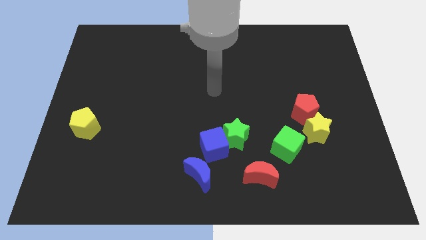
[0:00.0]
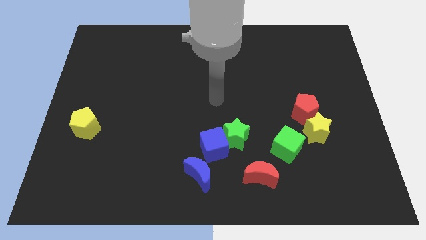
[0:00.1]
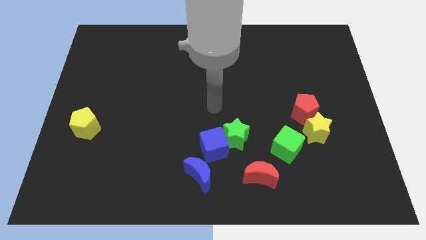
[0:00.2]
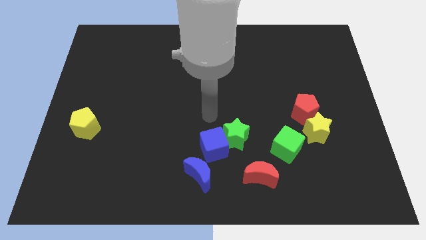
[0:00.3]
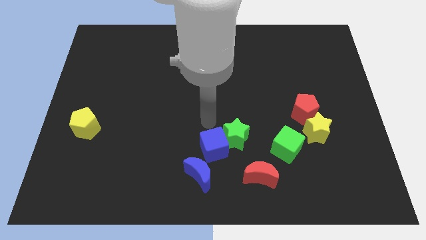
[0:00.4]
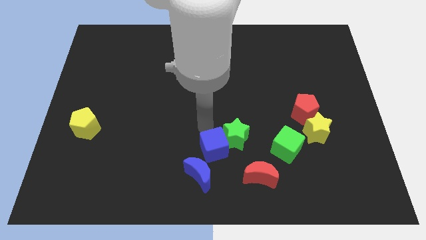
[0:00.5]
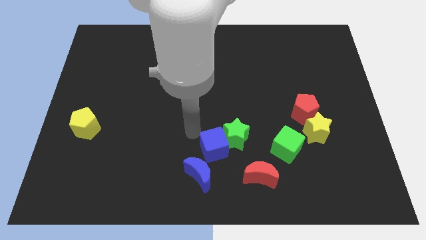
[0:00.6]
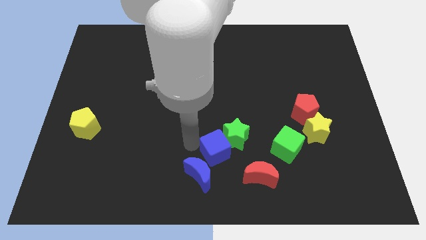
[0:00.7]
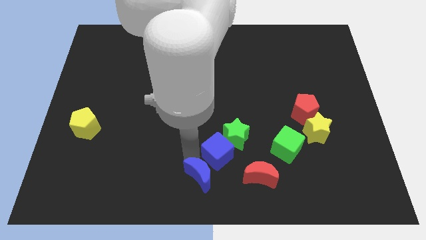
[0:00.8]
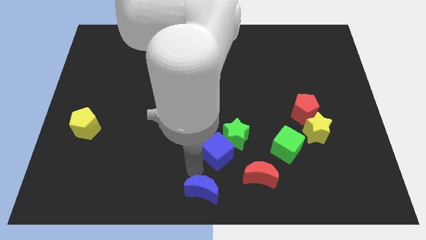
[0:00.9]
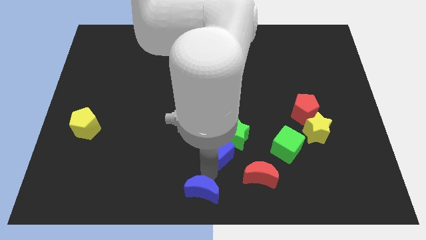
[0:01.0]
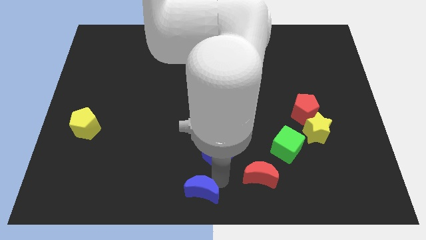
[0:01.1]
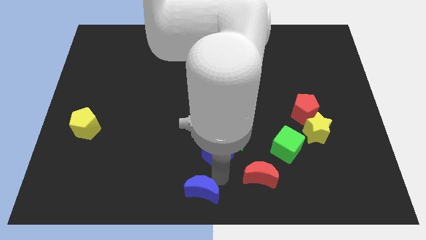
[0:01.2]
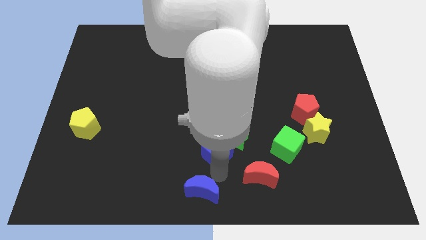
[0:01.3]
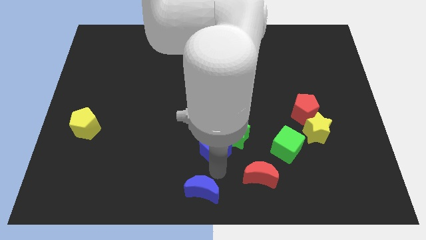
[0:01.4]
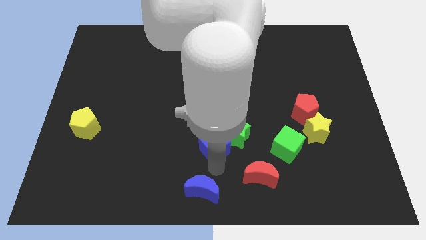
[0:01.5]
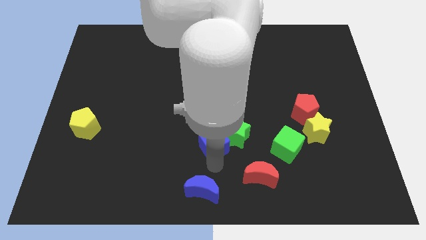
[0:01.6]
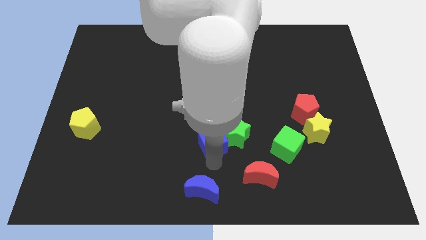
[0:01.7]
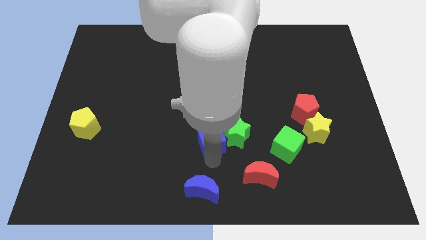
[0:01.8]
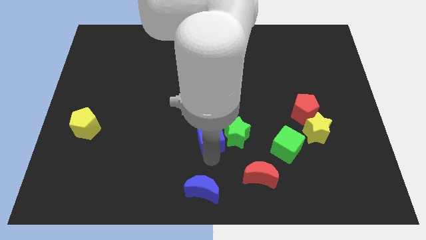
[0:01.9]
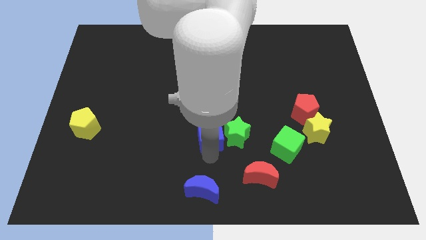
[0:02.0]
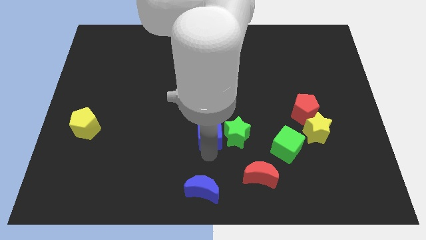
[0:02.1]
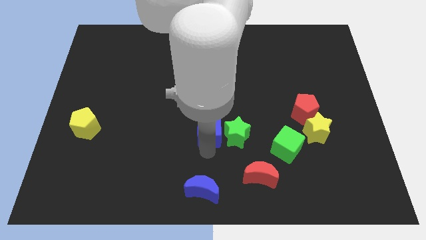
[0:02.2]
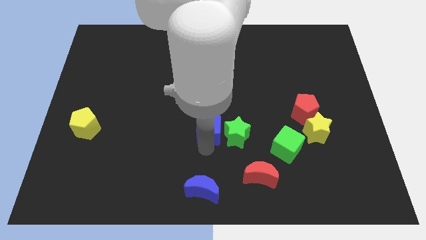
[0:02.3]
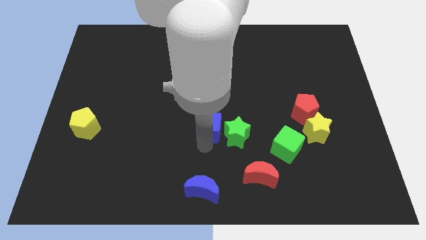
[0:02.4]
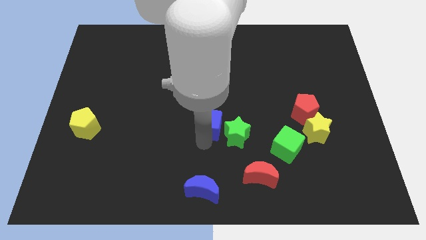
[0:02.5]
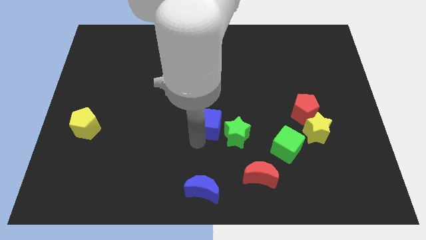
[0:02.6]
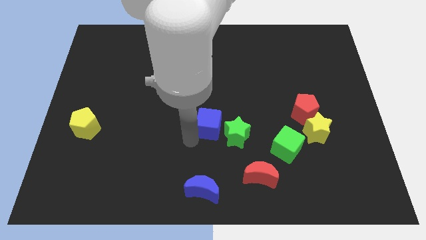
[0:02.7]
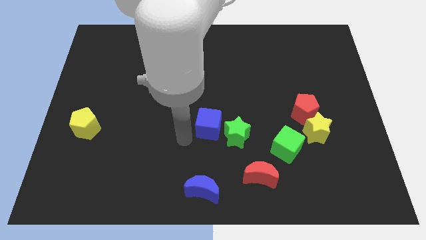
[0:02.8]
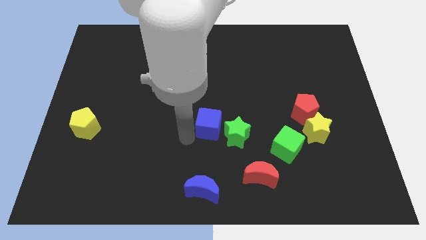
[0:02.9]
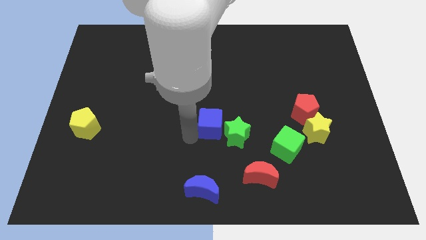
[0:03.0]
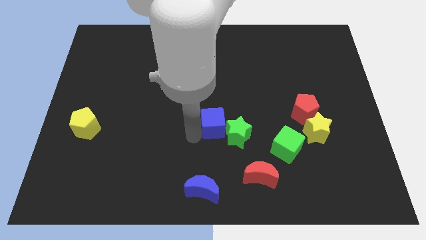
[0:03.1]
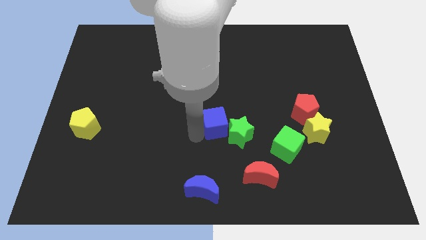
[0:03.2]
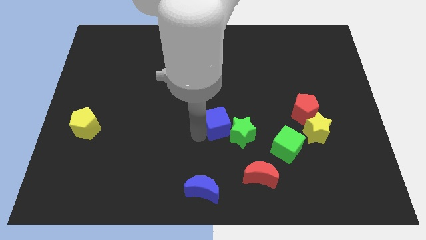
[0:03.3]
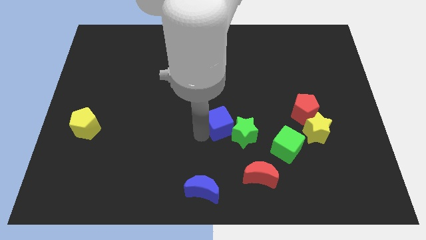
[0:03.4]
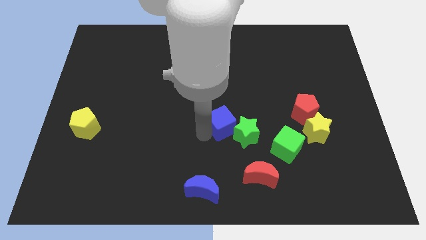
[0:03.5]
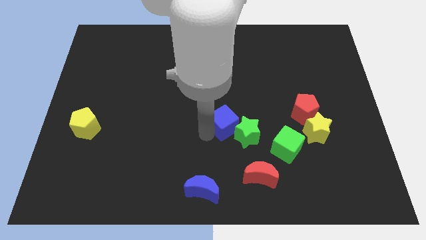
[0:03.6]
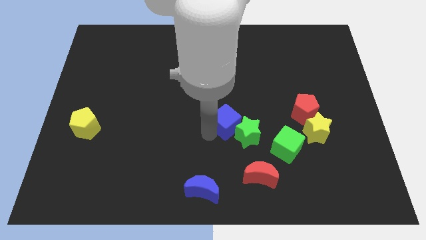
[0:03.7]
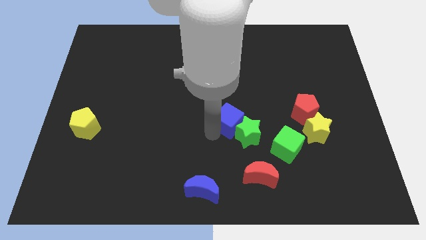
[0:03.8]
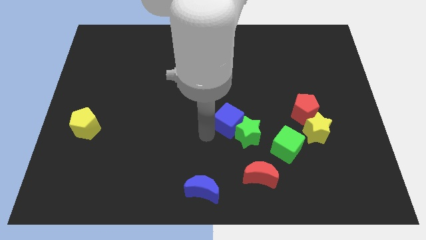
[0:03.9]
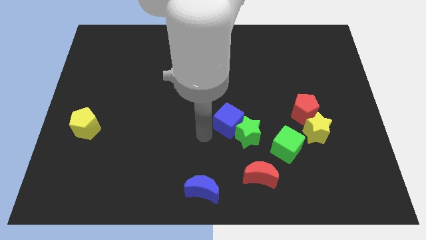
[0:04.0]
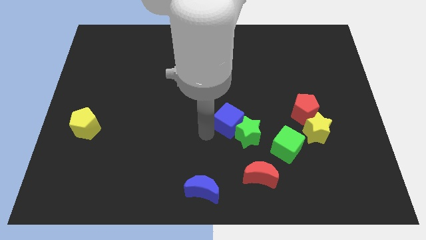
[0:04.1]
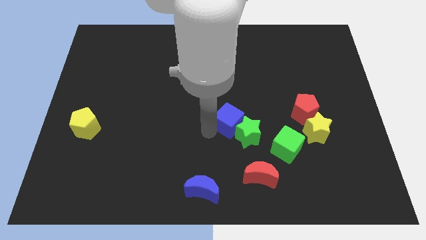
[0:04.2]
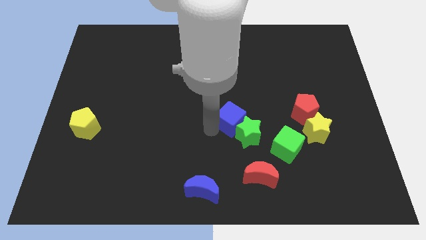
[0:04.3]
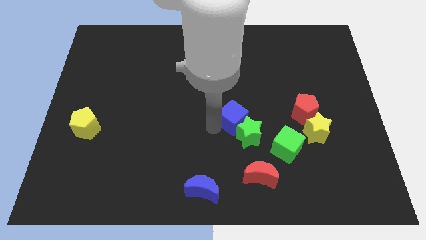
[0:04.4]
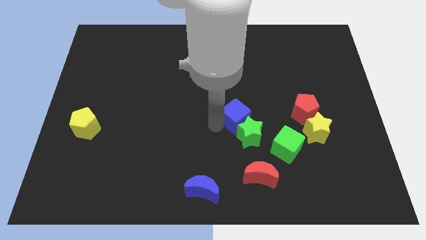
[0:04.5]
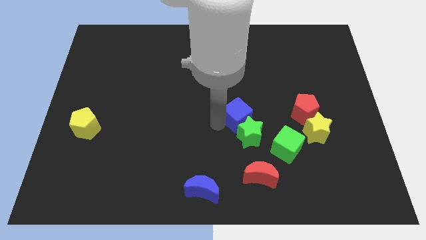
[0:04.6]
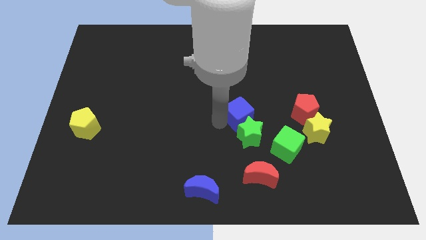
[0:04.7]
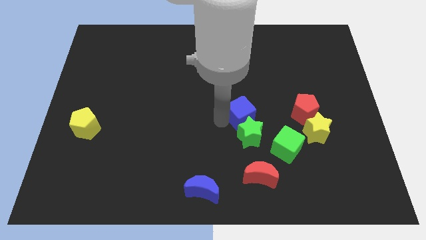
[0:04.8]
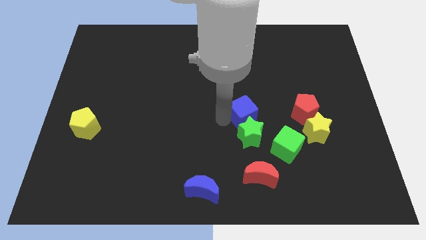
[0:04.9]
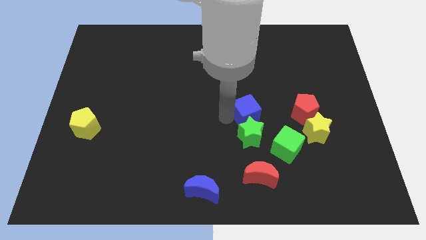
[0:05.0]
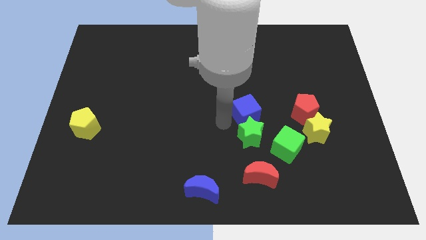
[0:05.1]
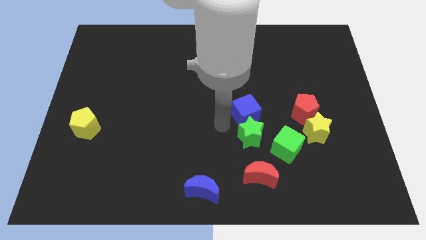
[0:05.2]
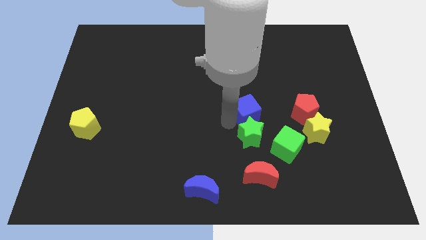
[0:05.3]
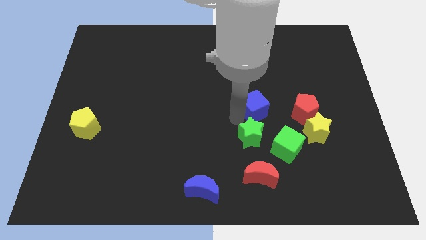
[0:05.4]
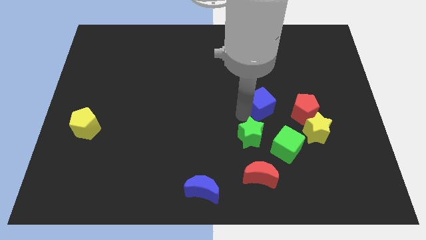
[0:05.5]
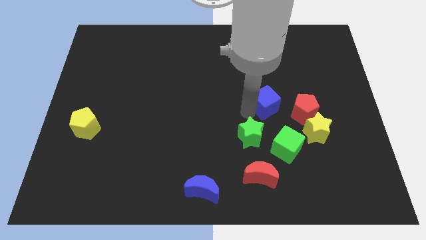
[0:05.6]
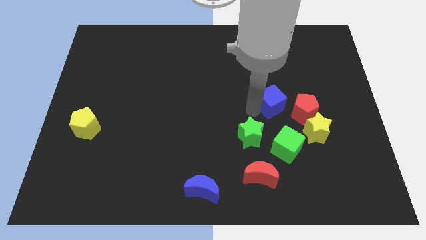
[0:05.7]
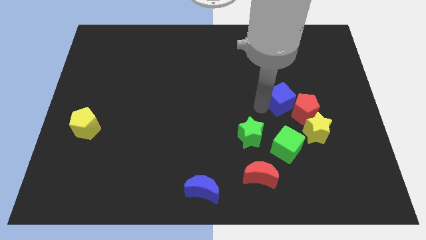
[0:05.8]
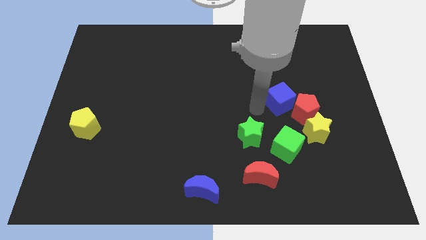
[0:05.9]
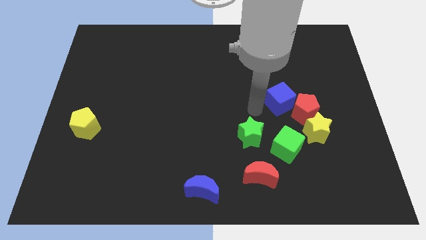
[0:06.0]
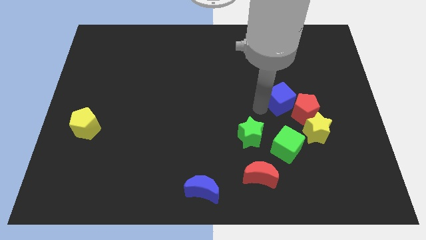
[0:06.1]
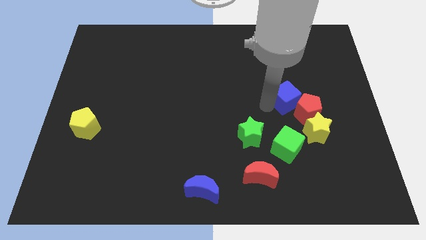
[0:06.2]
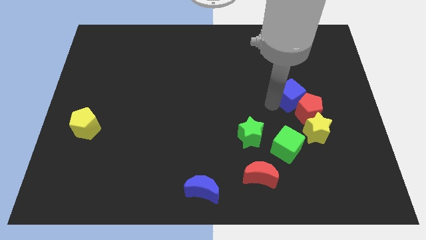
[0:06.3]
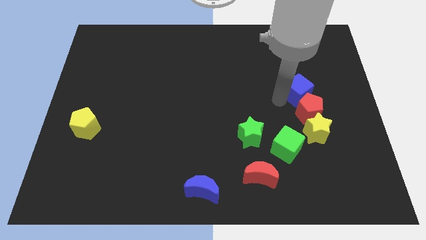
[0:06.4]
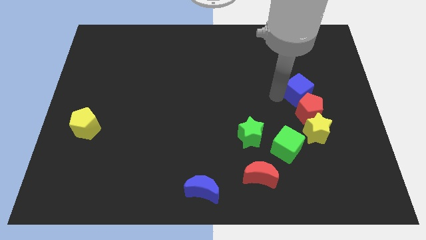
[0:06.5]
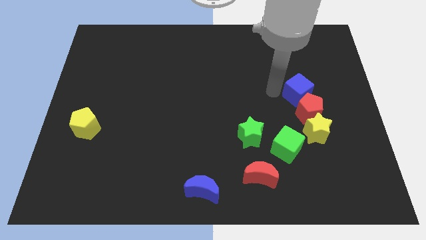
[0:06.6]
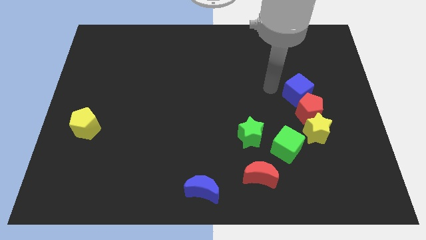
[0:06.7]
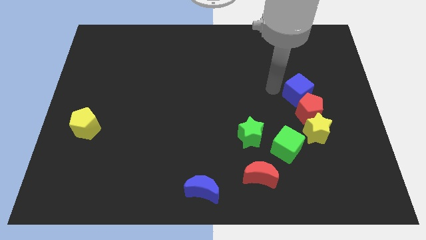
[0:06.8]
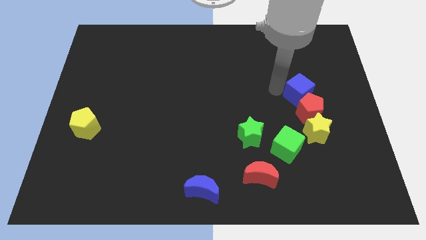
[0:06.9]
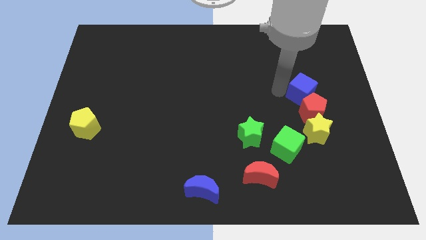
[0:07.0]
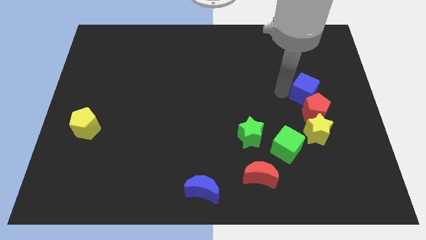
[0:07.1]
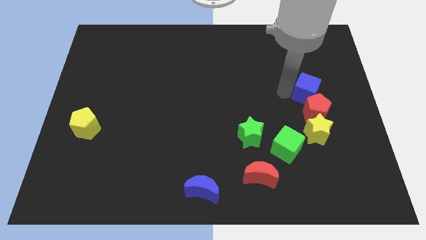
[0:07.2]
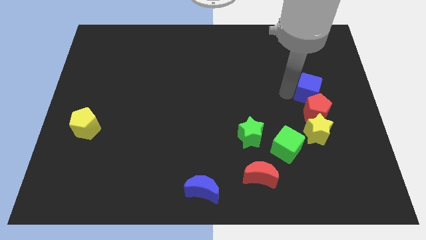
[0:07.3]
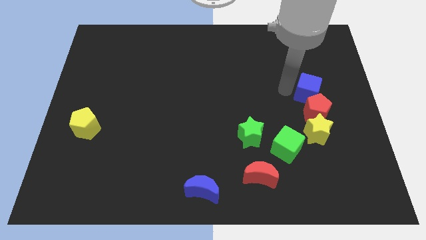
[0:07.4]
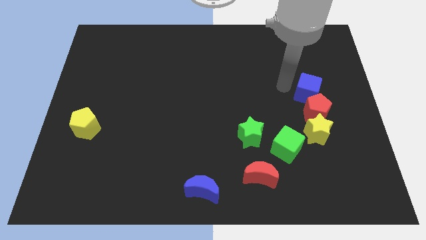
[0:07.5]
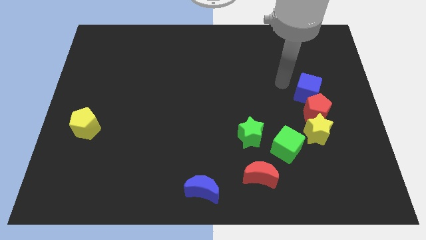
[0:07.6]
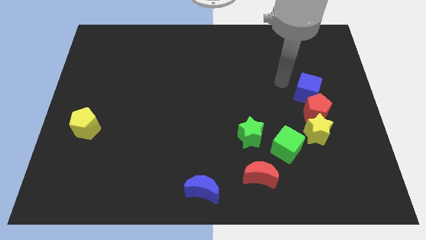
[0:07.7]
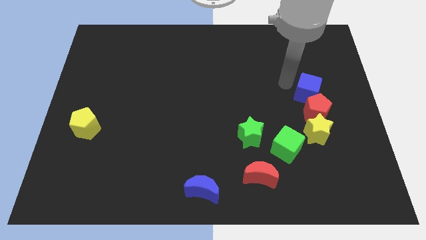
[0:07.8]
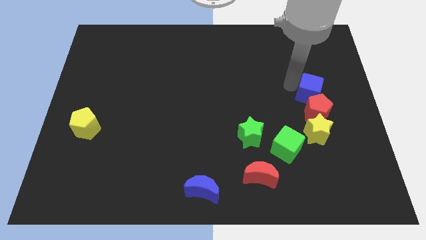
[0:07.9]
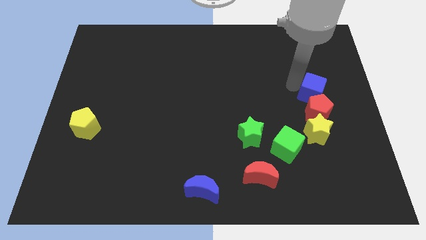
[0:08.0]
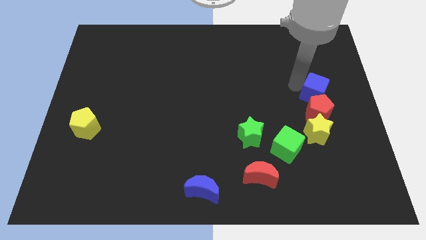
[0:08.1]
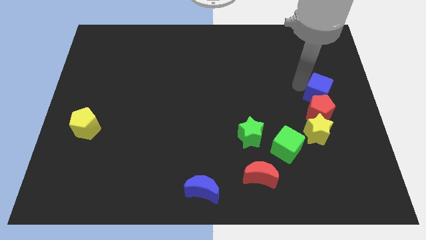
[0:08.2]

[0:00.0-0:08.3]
push the blue cube to the right side
